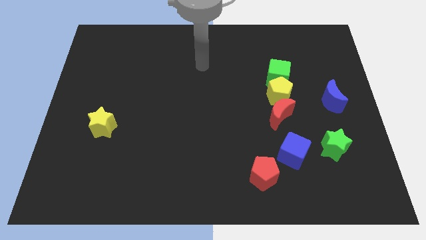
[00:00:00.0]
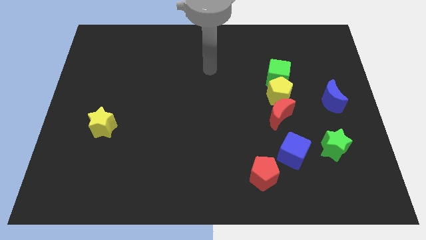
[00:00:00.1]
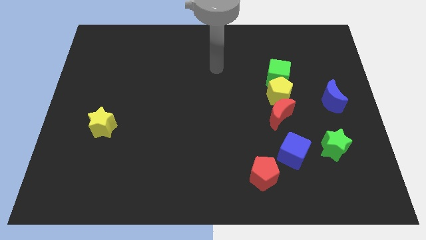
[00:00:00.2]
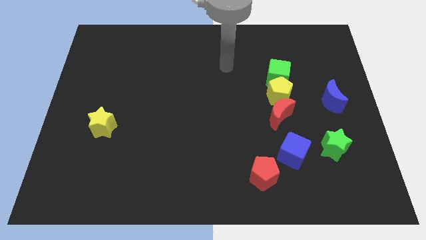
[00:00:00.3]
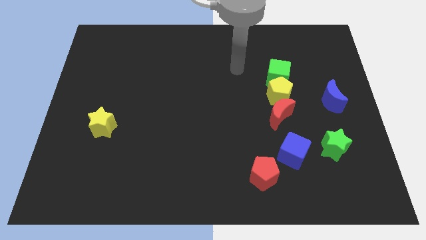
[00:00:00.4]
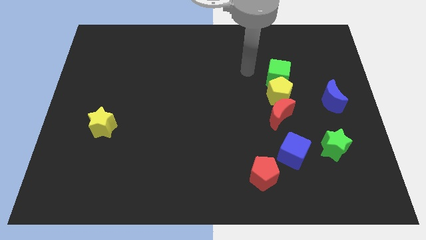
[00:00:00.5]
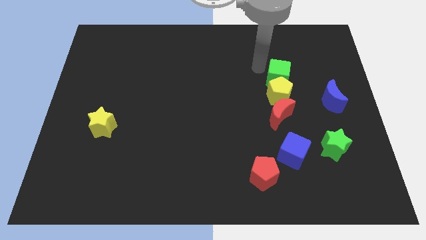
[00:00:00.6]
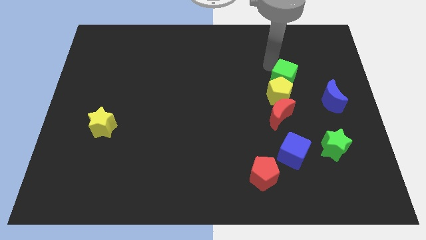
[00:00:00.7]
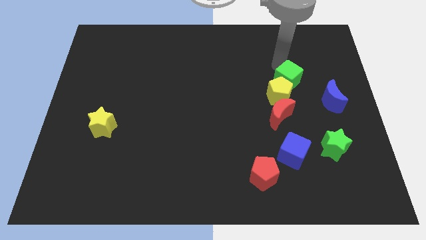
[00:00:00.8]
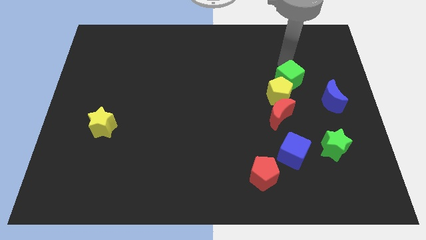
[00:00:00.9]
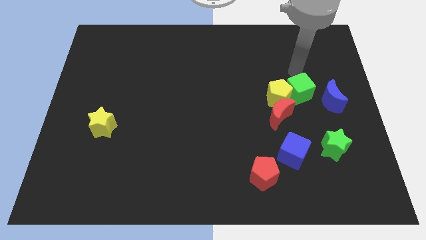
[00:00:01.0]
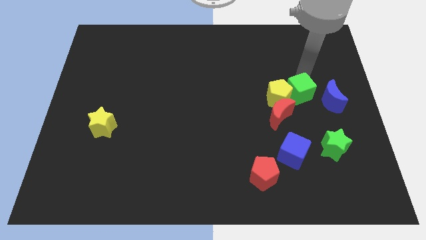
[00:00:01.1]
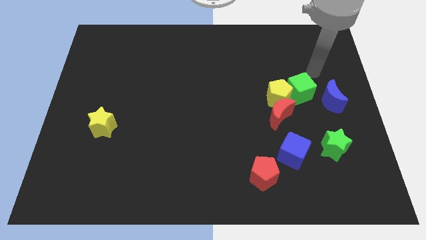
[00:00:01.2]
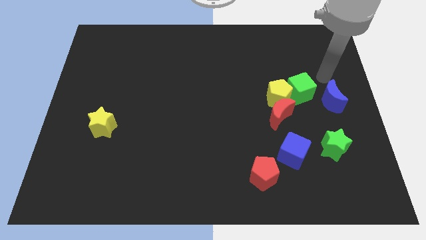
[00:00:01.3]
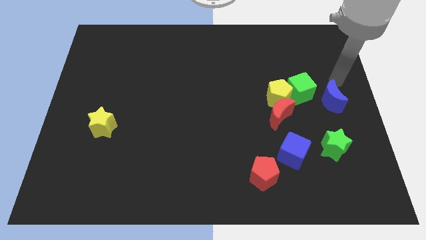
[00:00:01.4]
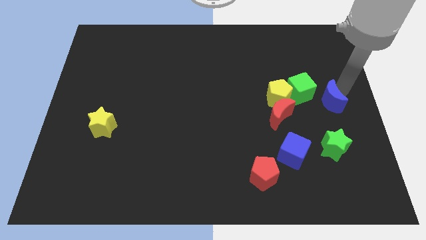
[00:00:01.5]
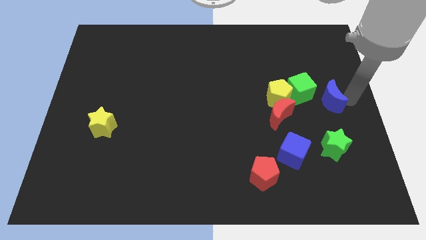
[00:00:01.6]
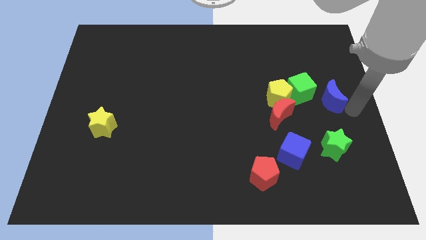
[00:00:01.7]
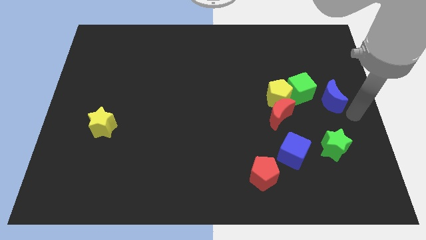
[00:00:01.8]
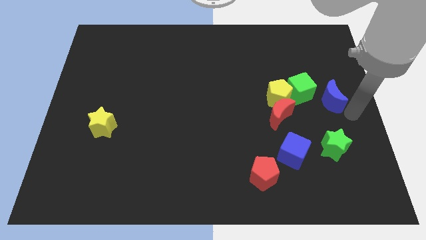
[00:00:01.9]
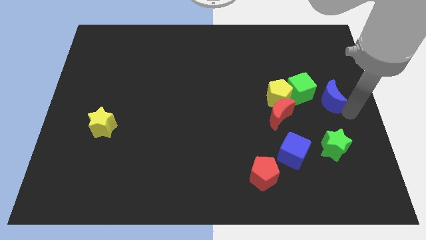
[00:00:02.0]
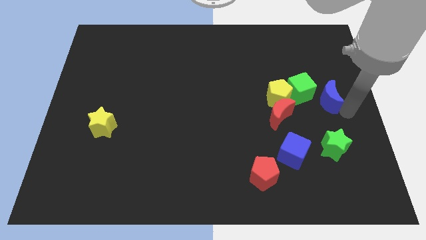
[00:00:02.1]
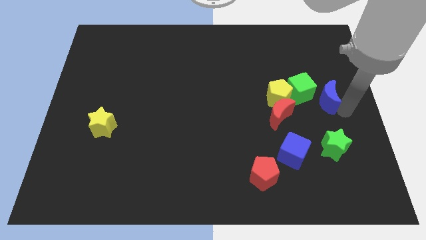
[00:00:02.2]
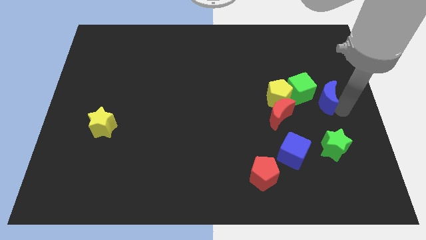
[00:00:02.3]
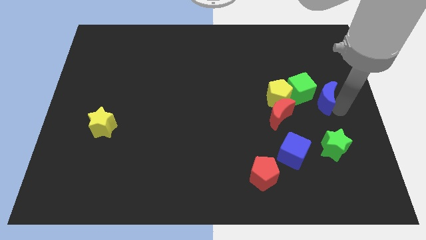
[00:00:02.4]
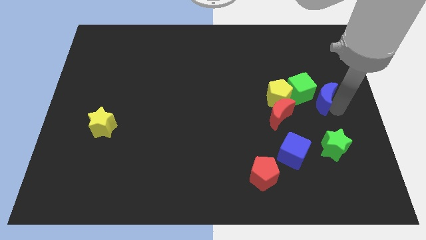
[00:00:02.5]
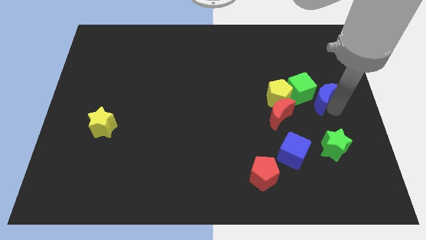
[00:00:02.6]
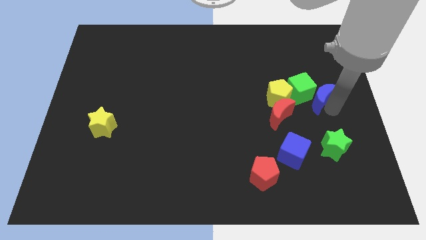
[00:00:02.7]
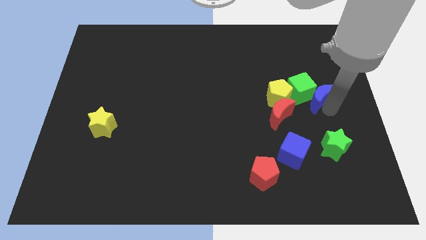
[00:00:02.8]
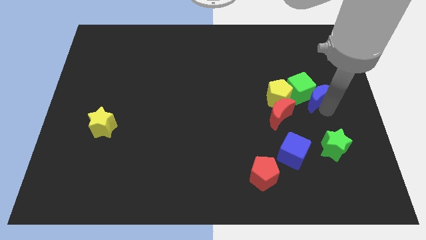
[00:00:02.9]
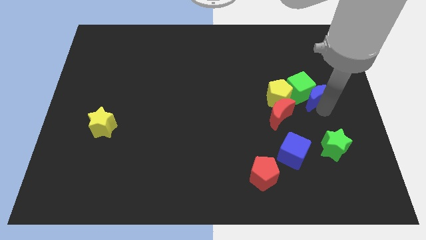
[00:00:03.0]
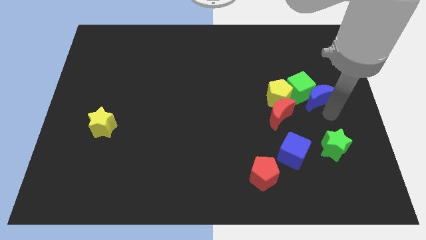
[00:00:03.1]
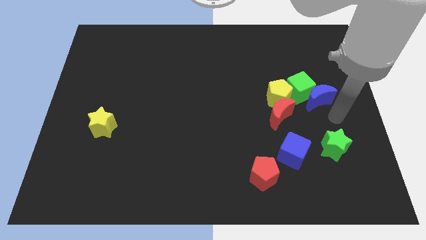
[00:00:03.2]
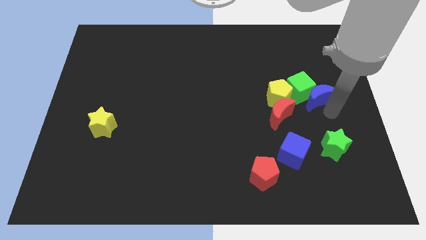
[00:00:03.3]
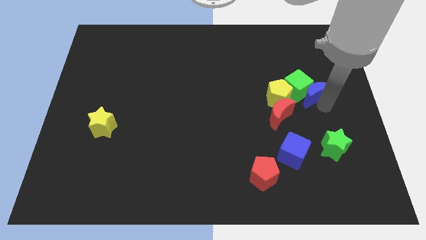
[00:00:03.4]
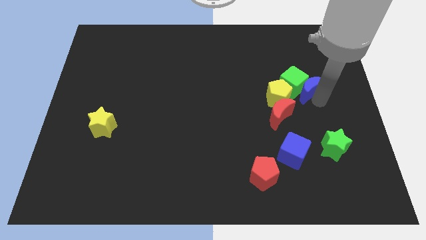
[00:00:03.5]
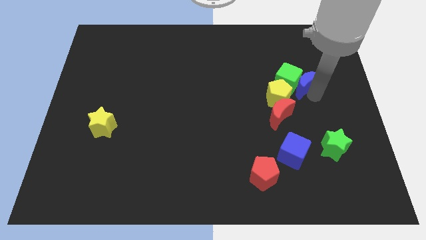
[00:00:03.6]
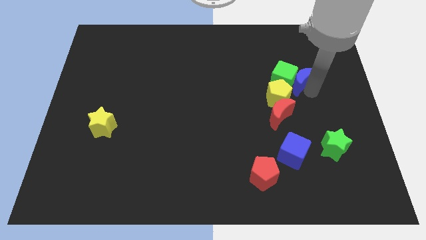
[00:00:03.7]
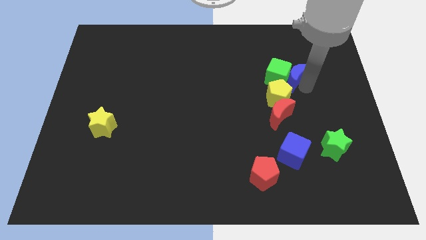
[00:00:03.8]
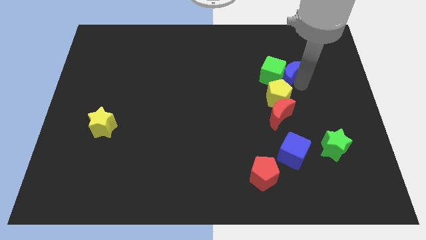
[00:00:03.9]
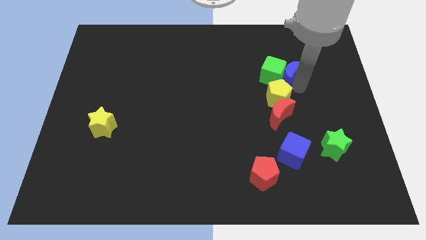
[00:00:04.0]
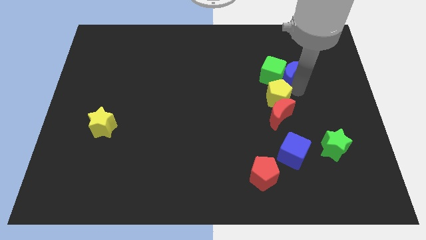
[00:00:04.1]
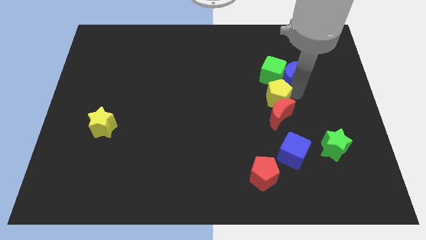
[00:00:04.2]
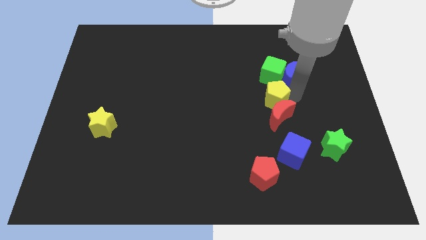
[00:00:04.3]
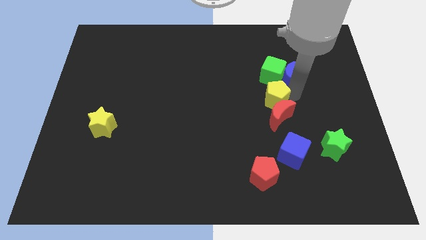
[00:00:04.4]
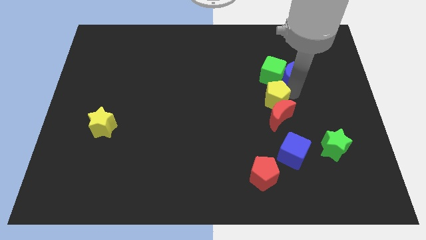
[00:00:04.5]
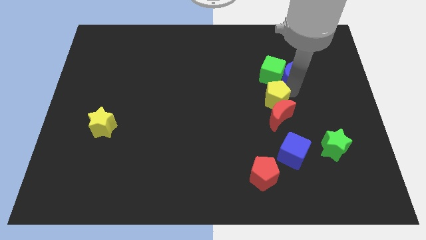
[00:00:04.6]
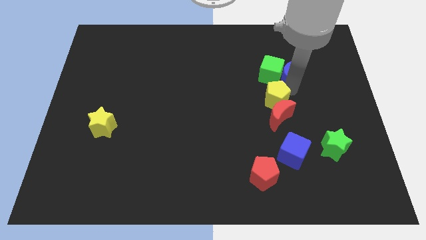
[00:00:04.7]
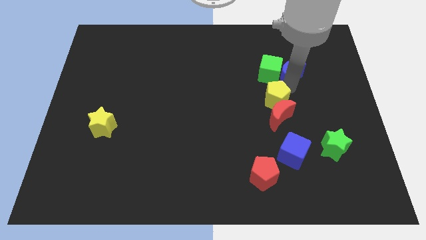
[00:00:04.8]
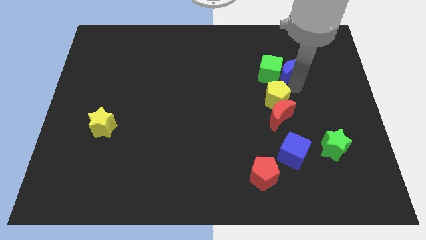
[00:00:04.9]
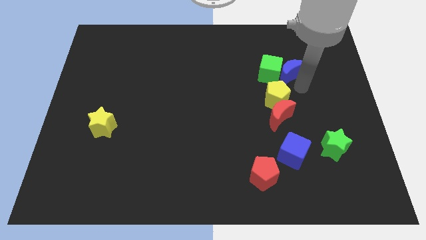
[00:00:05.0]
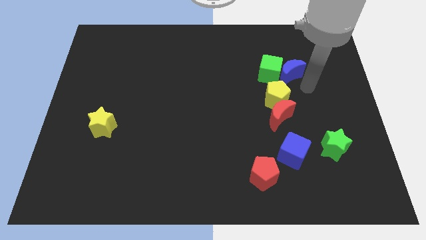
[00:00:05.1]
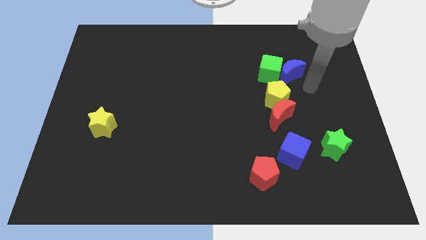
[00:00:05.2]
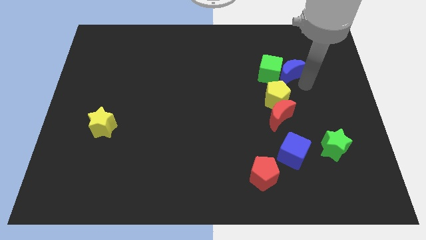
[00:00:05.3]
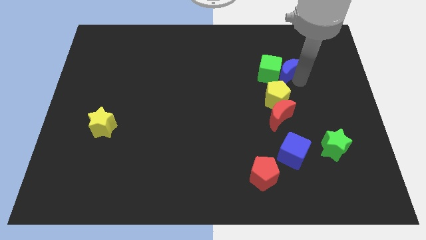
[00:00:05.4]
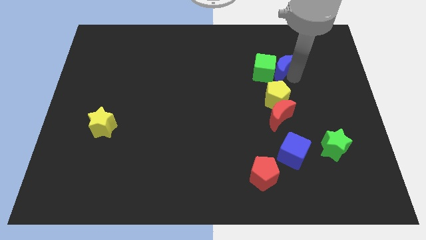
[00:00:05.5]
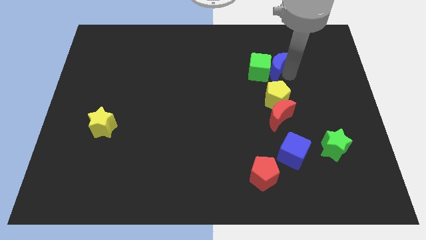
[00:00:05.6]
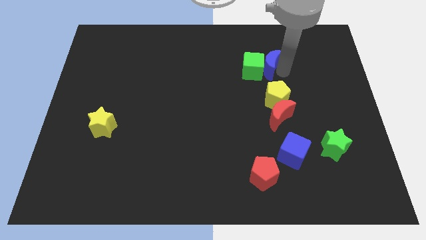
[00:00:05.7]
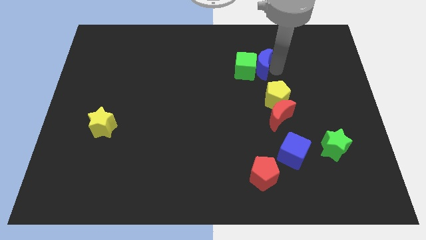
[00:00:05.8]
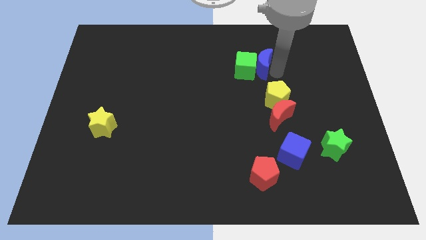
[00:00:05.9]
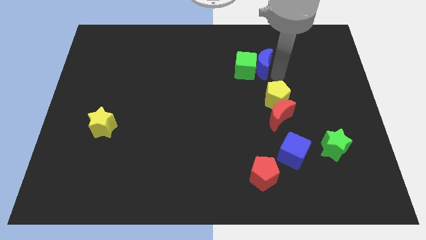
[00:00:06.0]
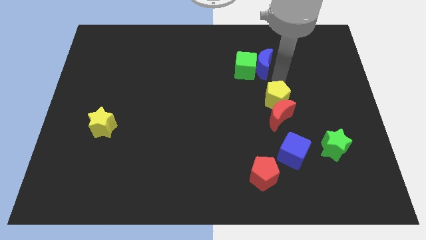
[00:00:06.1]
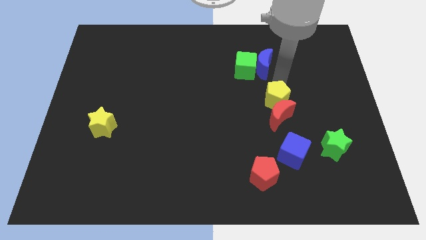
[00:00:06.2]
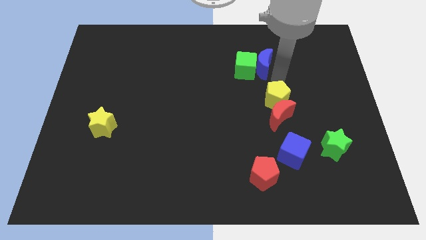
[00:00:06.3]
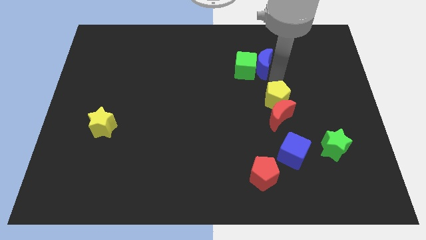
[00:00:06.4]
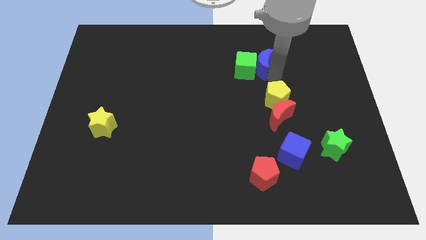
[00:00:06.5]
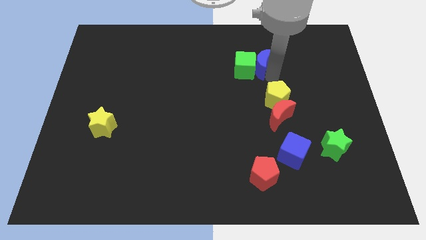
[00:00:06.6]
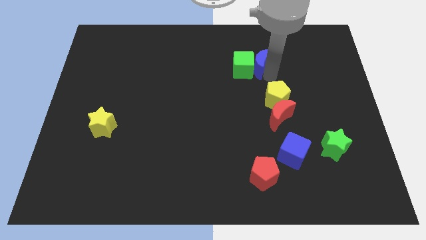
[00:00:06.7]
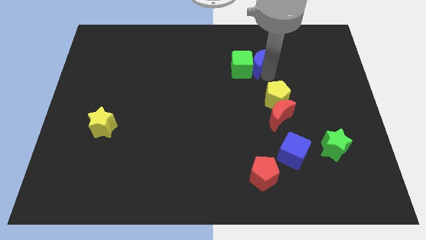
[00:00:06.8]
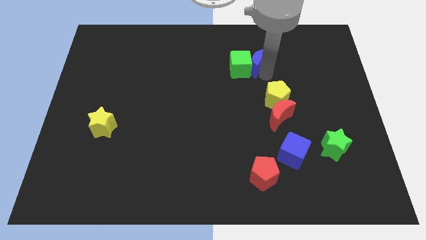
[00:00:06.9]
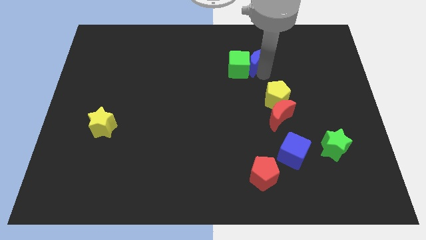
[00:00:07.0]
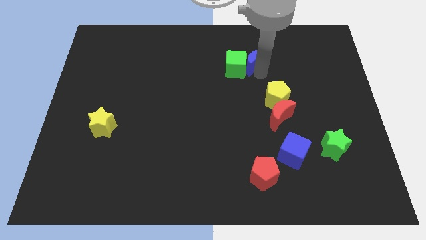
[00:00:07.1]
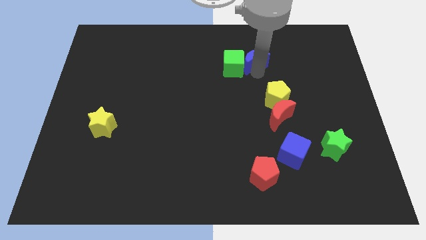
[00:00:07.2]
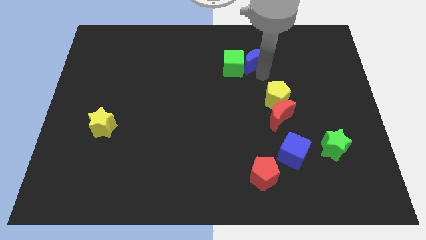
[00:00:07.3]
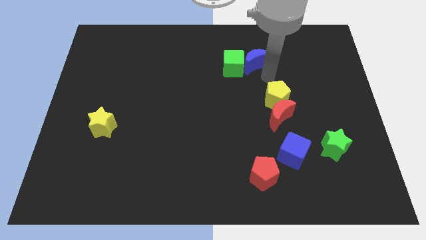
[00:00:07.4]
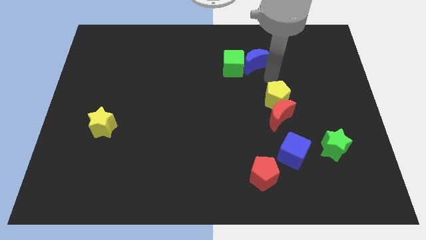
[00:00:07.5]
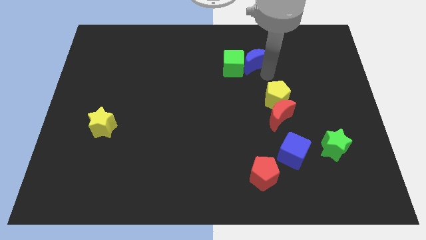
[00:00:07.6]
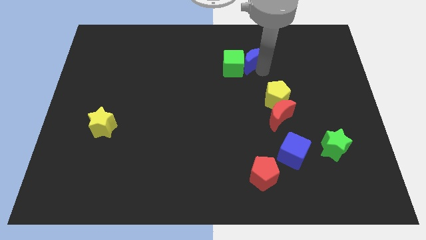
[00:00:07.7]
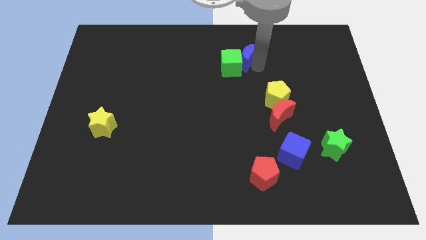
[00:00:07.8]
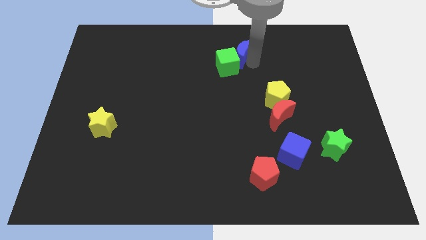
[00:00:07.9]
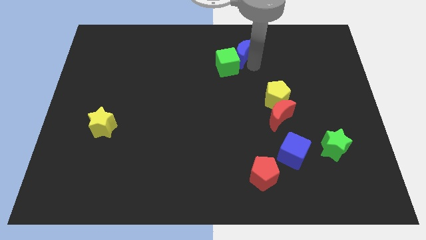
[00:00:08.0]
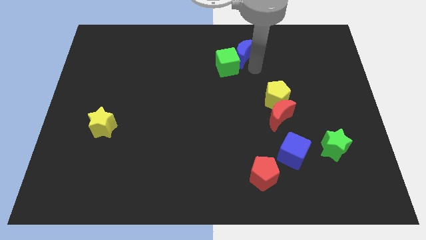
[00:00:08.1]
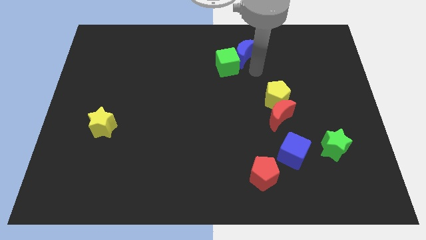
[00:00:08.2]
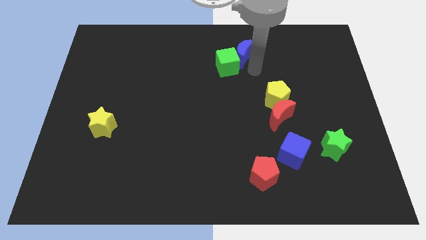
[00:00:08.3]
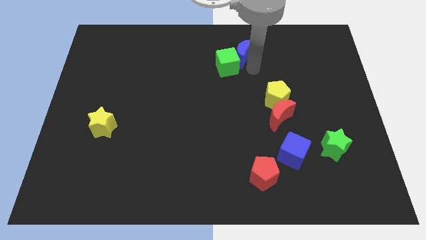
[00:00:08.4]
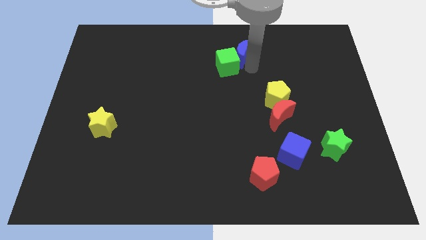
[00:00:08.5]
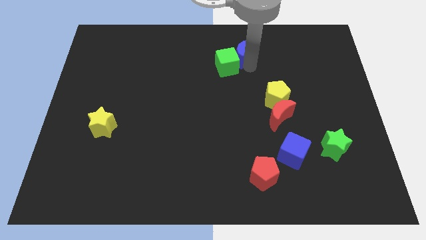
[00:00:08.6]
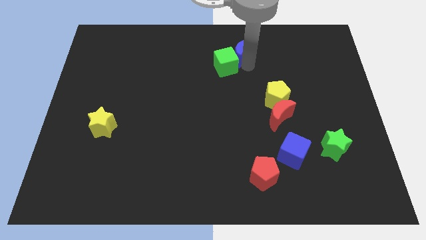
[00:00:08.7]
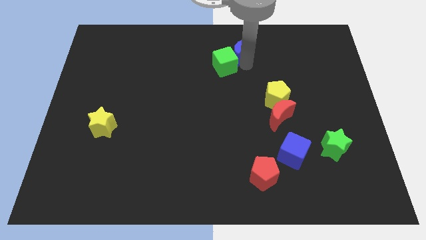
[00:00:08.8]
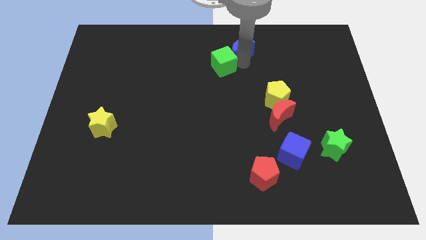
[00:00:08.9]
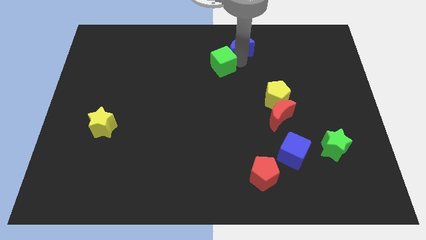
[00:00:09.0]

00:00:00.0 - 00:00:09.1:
slide the blue moon to the top
